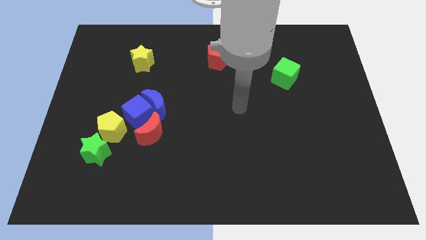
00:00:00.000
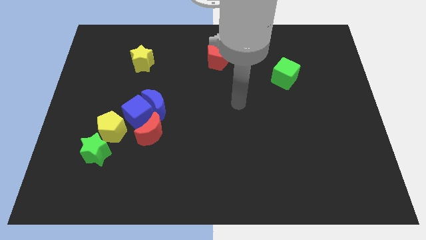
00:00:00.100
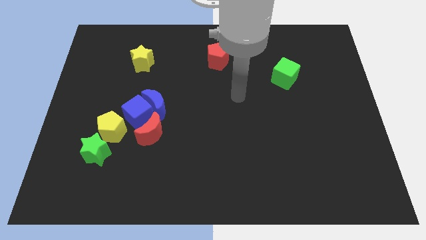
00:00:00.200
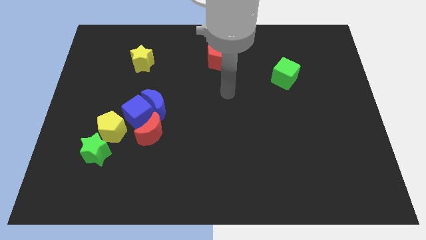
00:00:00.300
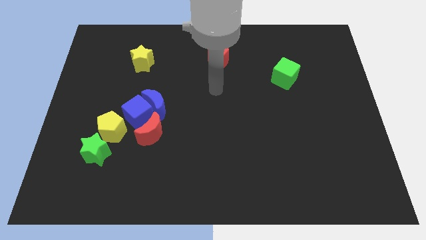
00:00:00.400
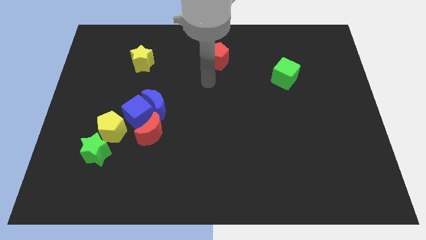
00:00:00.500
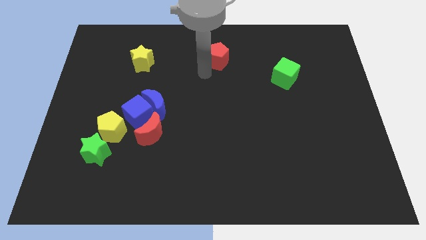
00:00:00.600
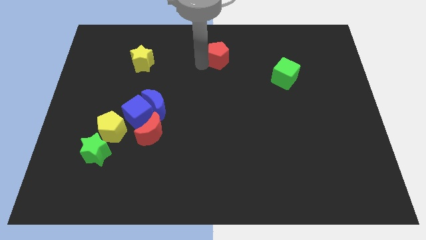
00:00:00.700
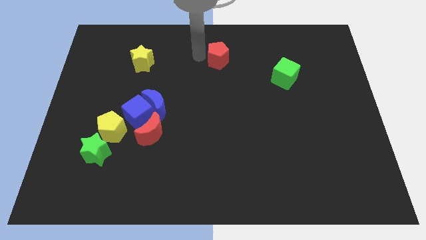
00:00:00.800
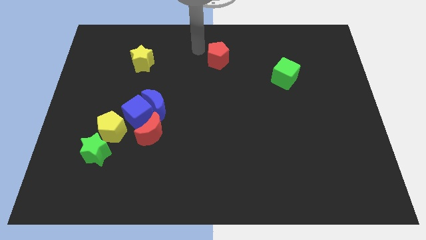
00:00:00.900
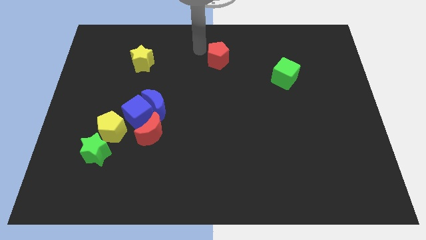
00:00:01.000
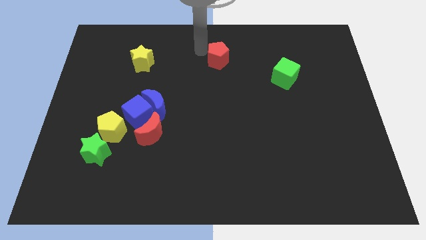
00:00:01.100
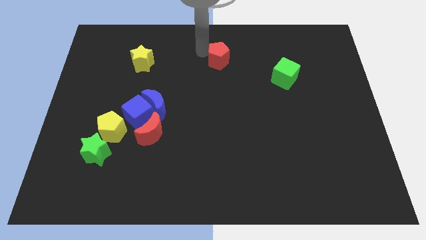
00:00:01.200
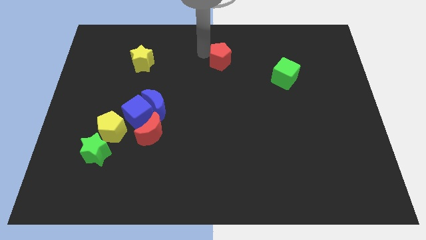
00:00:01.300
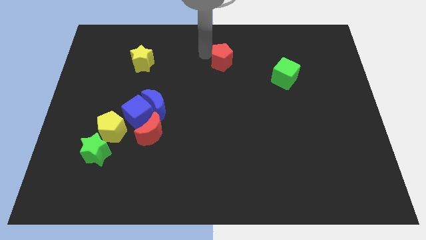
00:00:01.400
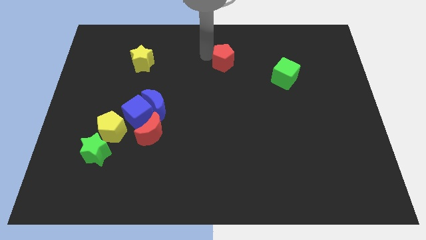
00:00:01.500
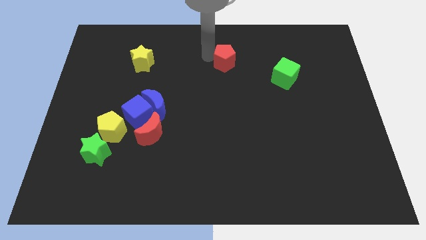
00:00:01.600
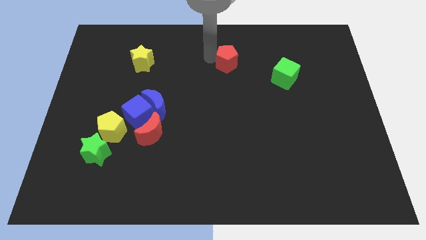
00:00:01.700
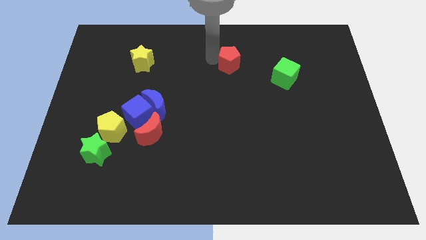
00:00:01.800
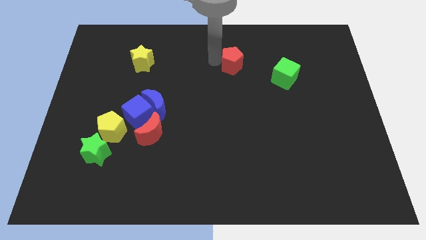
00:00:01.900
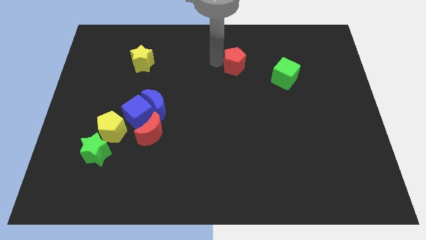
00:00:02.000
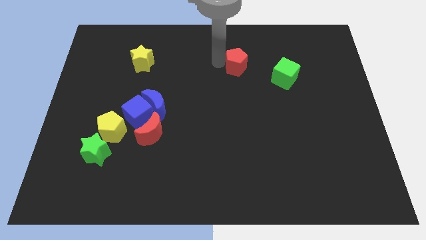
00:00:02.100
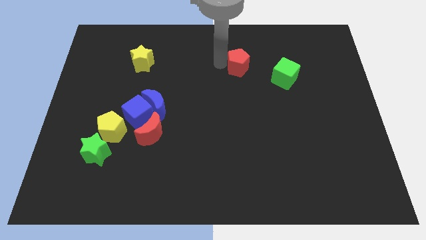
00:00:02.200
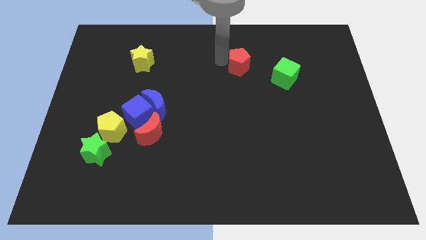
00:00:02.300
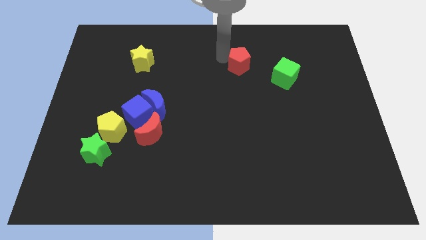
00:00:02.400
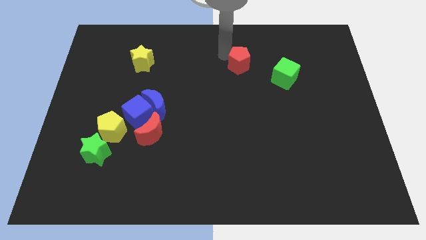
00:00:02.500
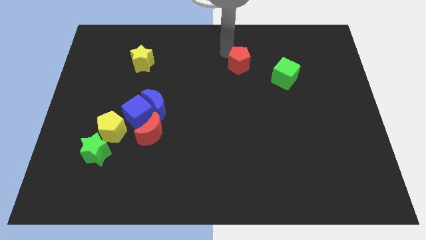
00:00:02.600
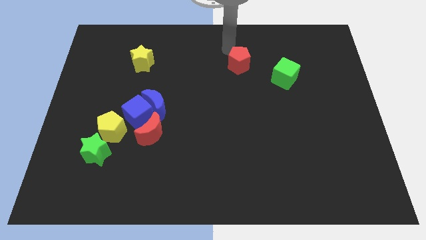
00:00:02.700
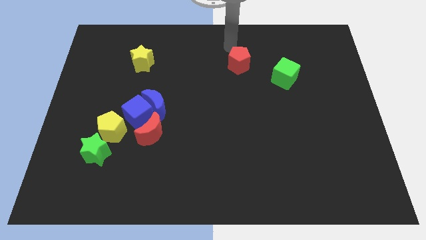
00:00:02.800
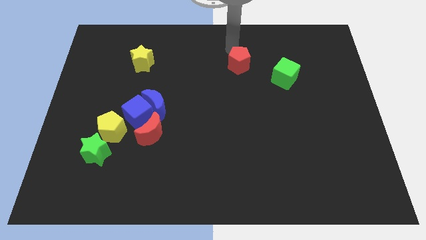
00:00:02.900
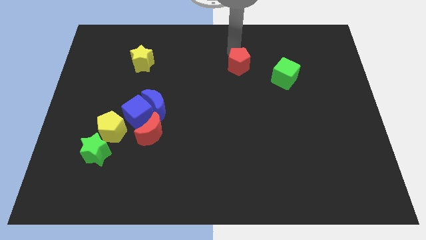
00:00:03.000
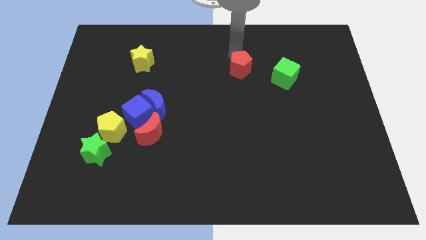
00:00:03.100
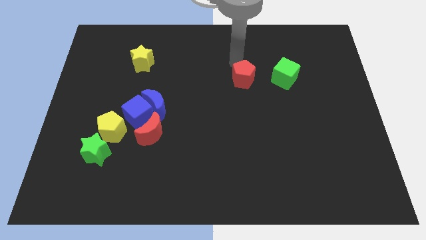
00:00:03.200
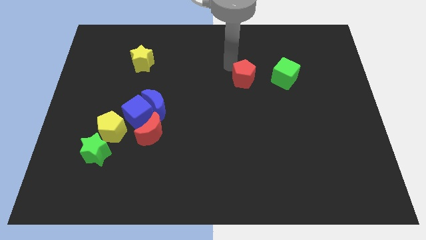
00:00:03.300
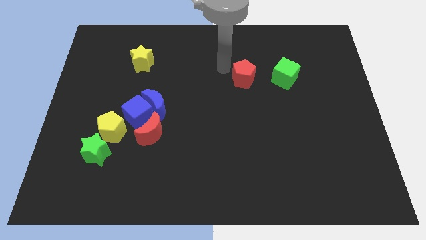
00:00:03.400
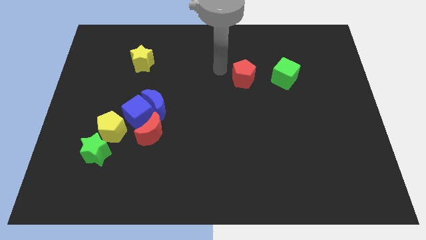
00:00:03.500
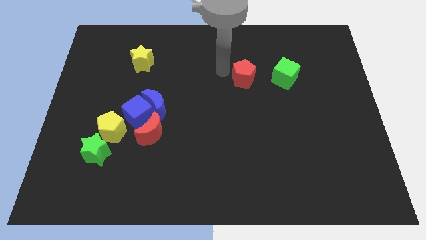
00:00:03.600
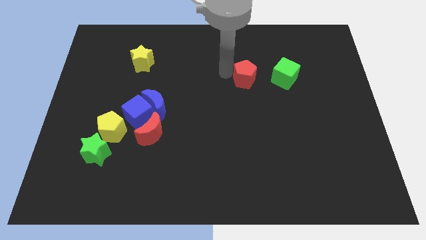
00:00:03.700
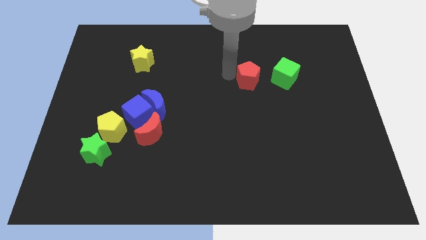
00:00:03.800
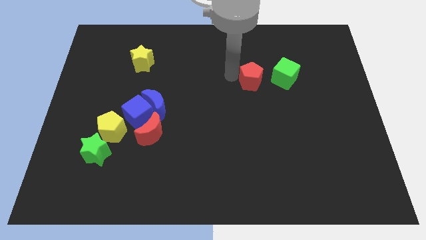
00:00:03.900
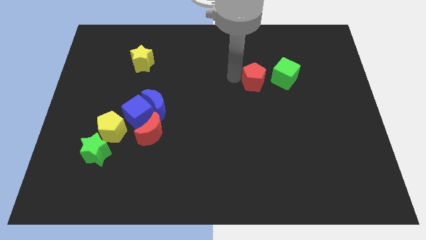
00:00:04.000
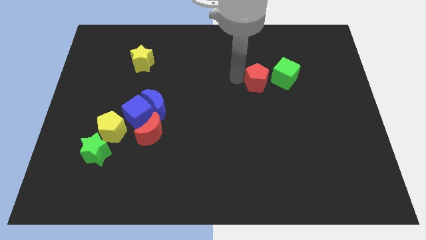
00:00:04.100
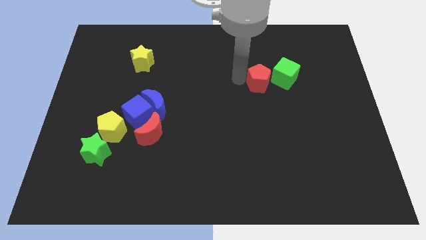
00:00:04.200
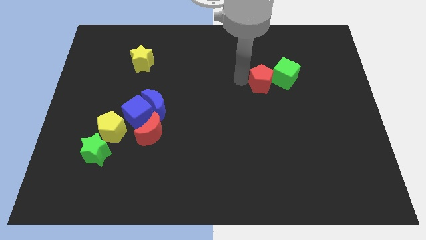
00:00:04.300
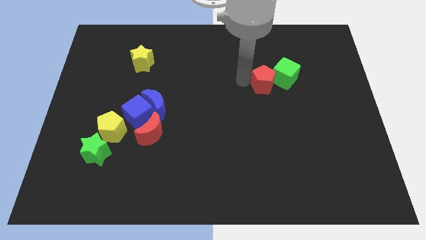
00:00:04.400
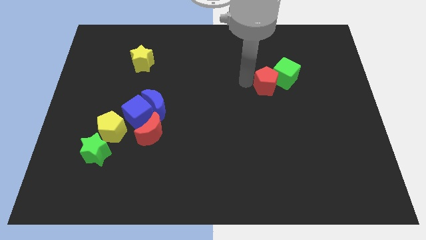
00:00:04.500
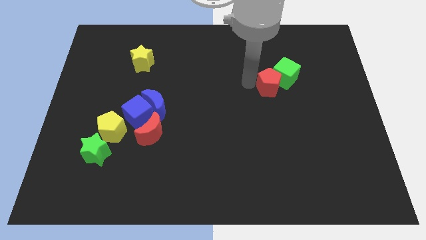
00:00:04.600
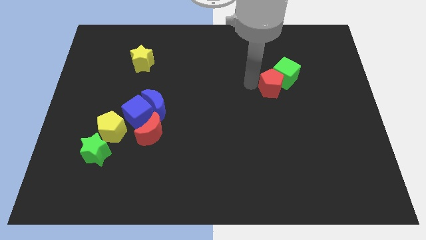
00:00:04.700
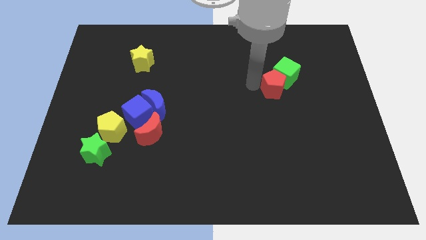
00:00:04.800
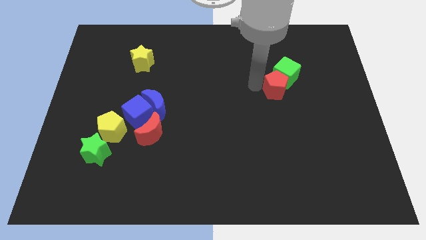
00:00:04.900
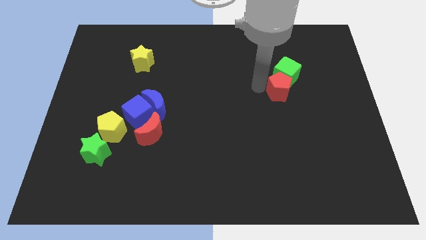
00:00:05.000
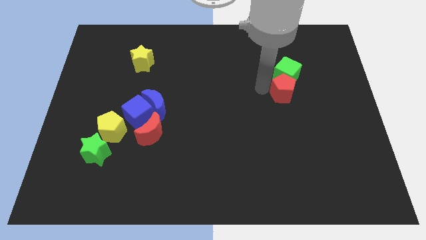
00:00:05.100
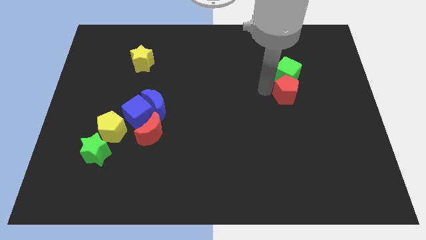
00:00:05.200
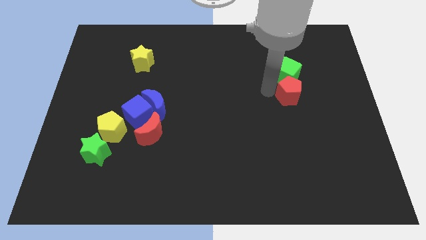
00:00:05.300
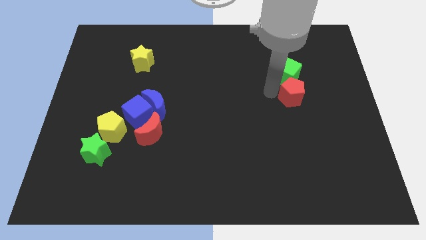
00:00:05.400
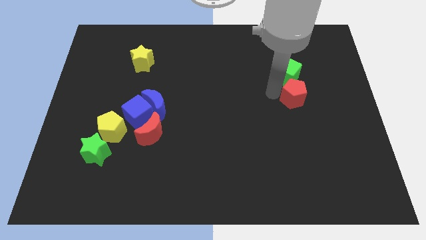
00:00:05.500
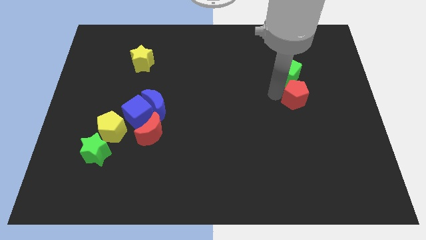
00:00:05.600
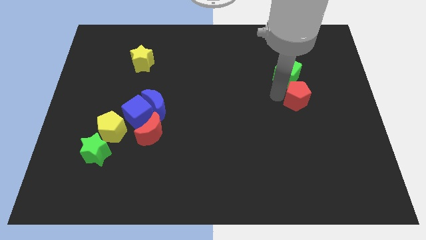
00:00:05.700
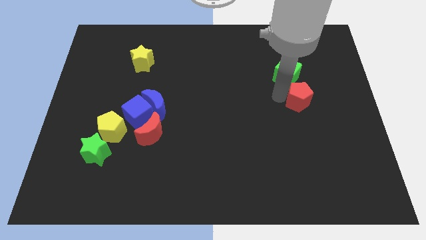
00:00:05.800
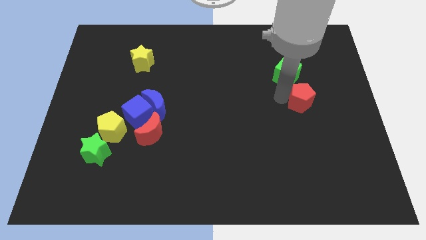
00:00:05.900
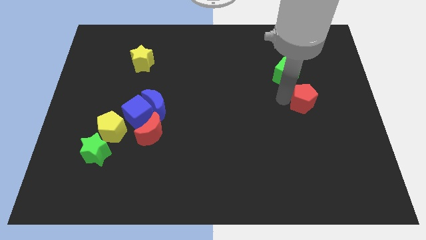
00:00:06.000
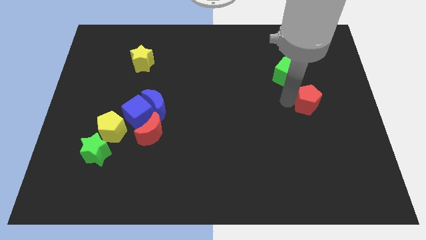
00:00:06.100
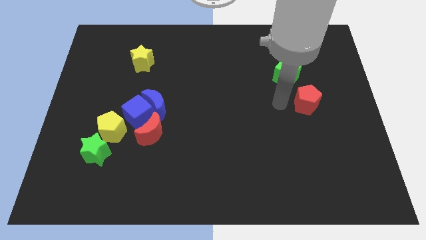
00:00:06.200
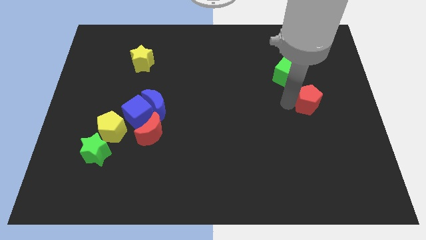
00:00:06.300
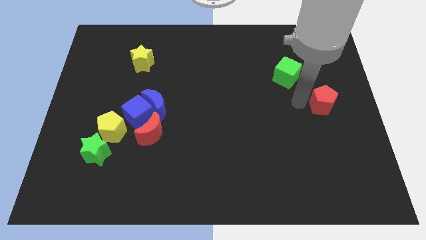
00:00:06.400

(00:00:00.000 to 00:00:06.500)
move the red pentagon to the center right
